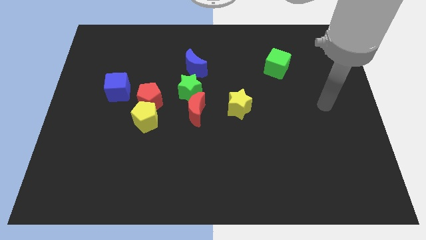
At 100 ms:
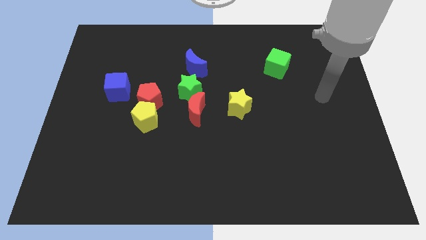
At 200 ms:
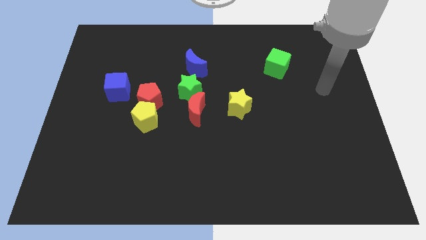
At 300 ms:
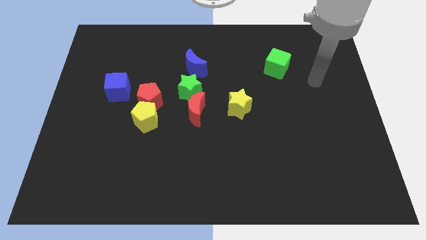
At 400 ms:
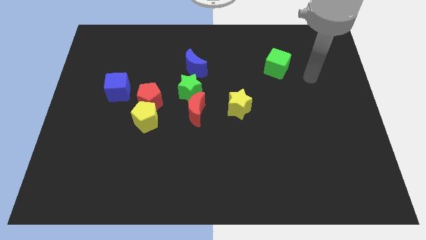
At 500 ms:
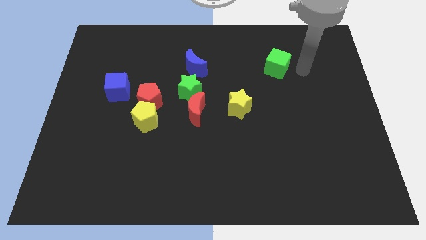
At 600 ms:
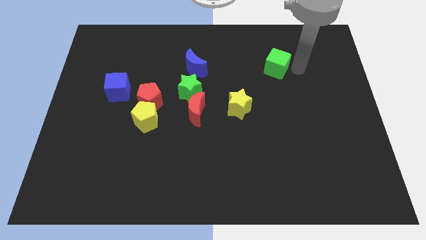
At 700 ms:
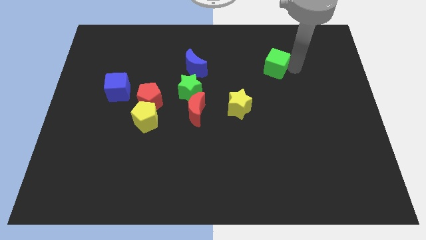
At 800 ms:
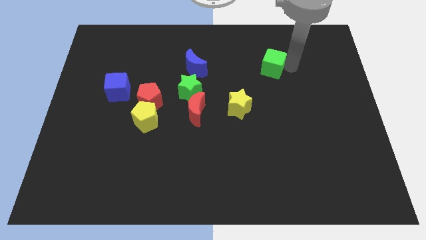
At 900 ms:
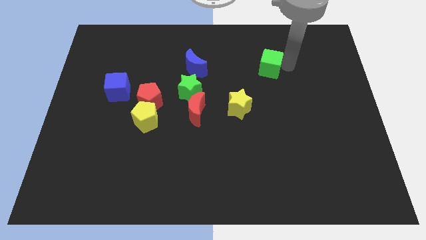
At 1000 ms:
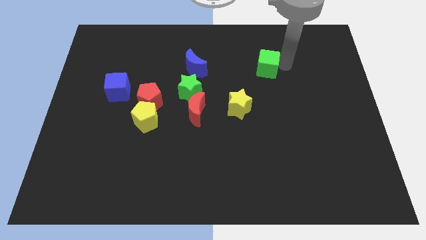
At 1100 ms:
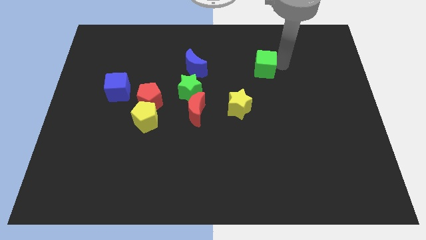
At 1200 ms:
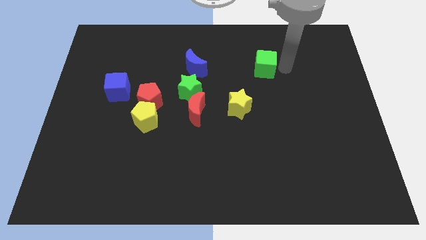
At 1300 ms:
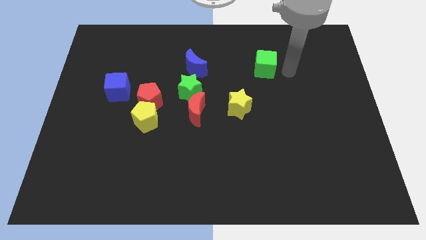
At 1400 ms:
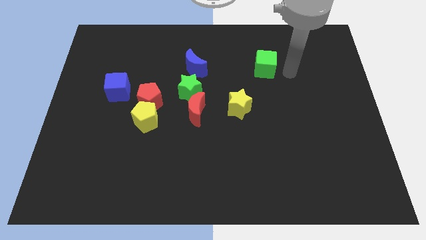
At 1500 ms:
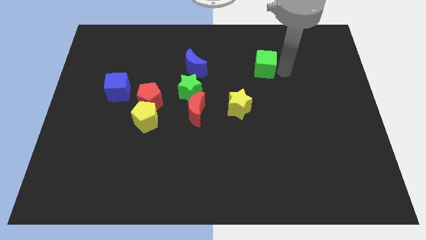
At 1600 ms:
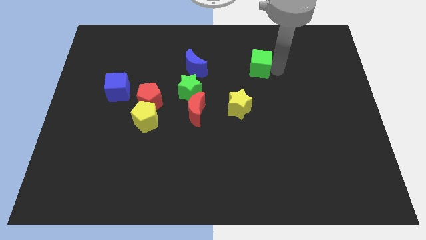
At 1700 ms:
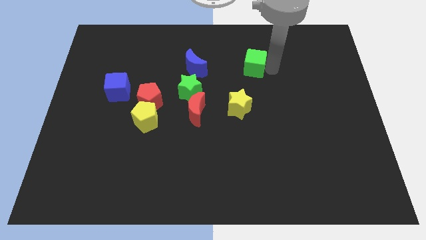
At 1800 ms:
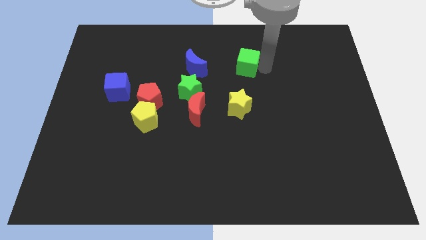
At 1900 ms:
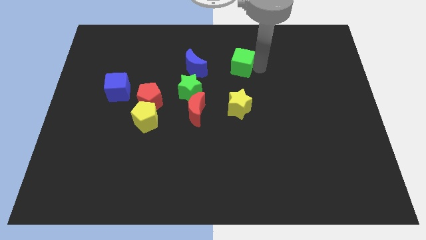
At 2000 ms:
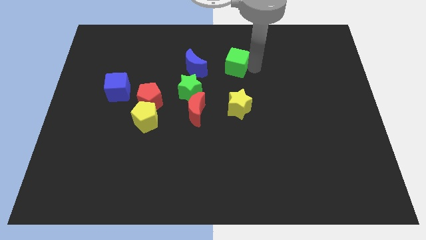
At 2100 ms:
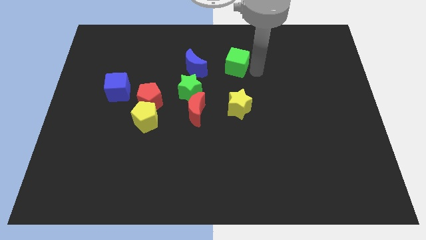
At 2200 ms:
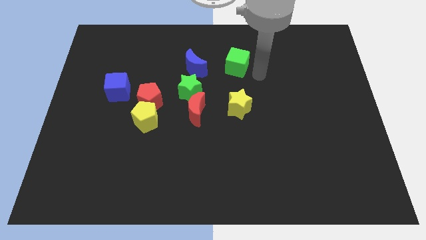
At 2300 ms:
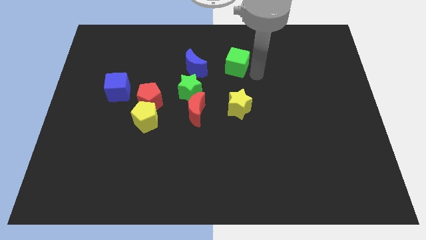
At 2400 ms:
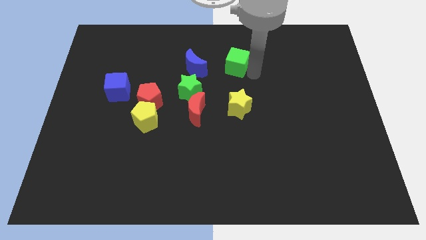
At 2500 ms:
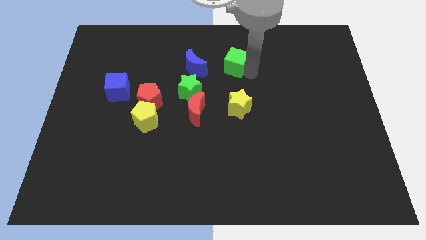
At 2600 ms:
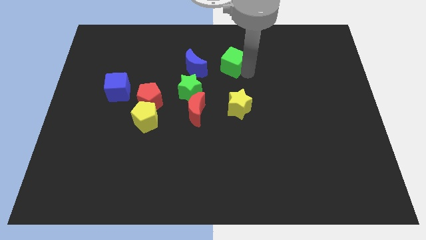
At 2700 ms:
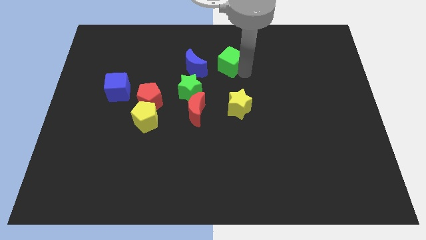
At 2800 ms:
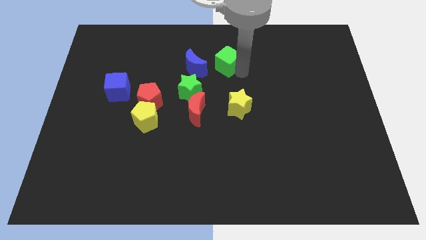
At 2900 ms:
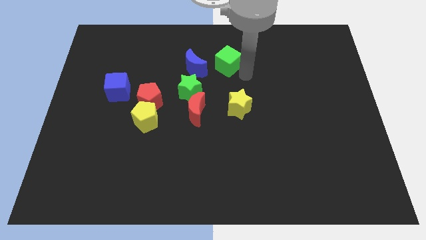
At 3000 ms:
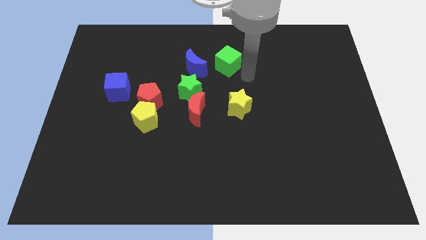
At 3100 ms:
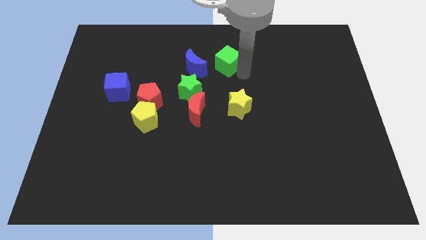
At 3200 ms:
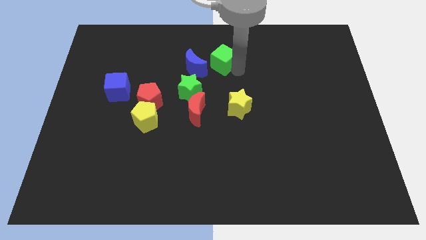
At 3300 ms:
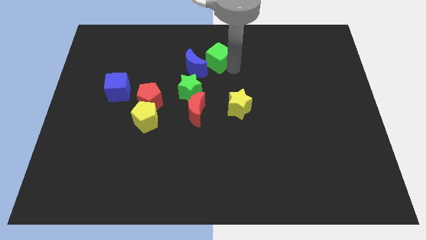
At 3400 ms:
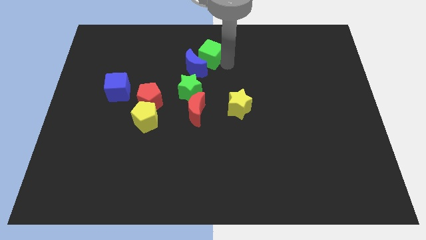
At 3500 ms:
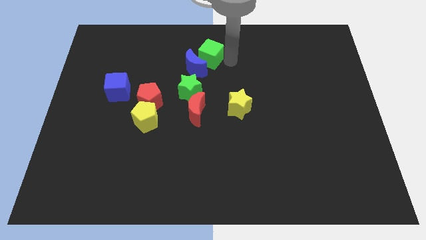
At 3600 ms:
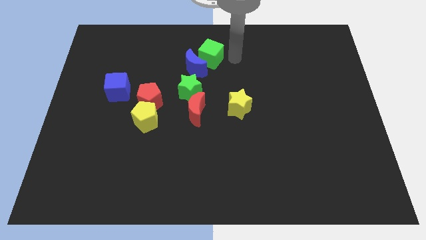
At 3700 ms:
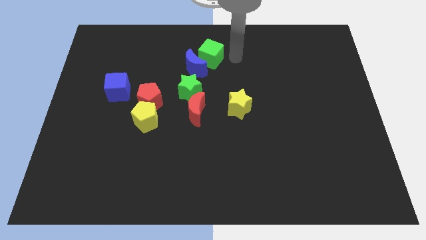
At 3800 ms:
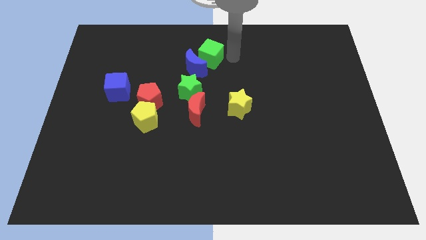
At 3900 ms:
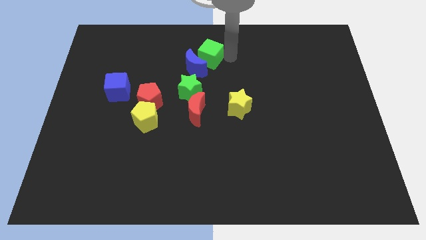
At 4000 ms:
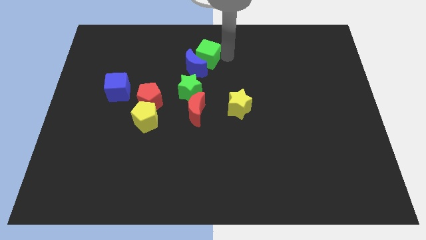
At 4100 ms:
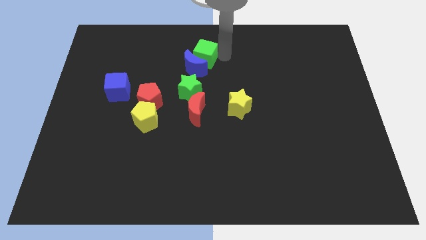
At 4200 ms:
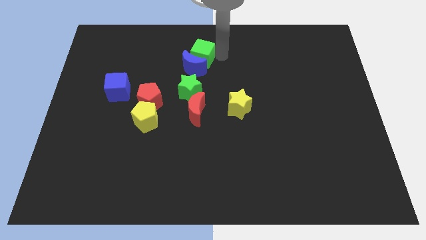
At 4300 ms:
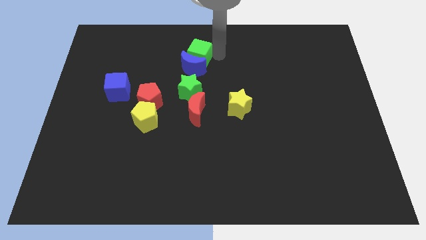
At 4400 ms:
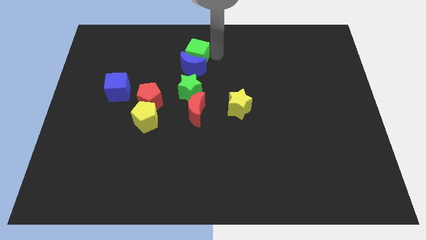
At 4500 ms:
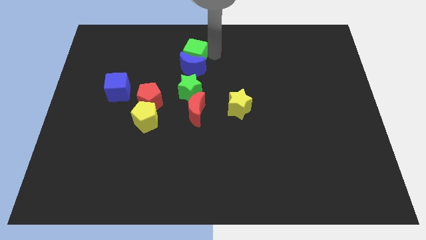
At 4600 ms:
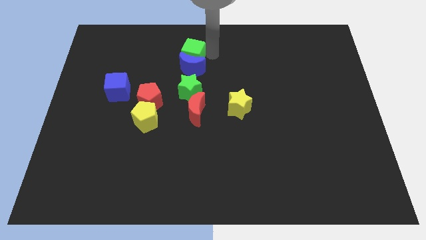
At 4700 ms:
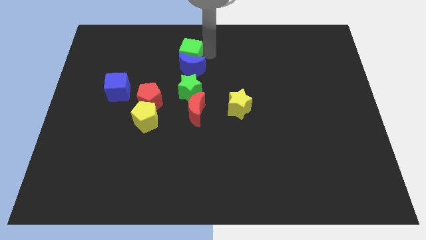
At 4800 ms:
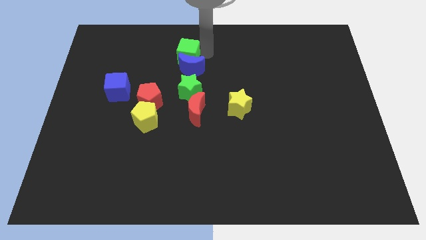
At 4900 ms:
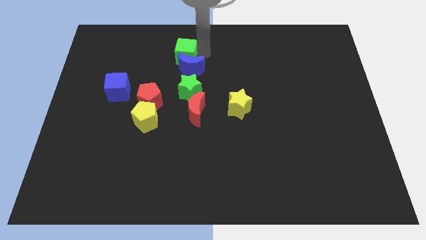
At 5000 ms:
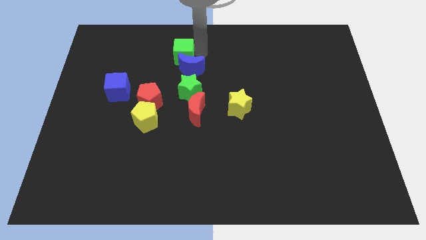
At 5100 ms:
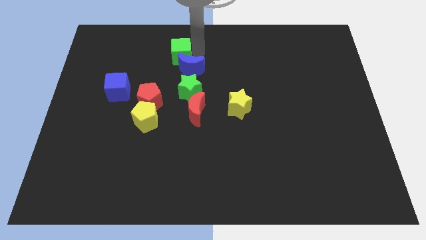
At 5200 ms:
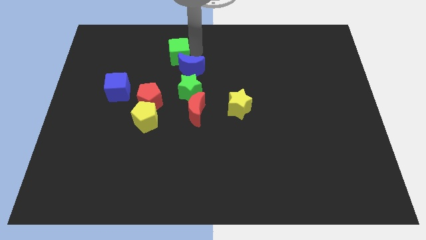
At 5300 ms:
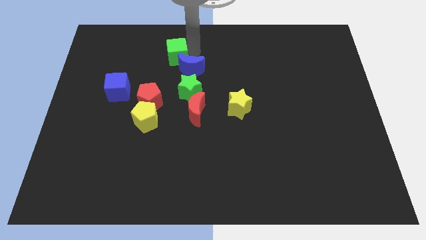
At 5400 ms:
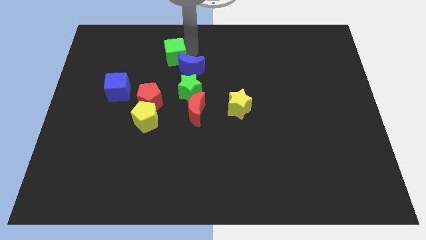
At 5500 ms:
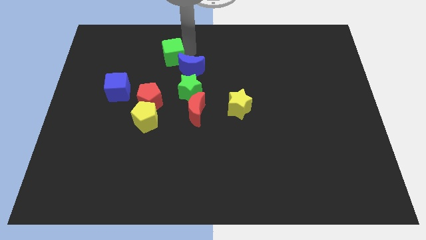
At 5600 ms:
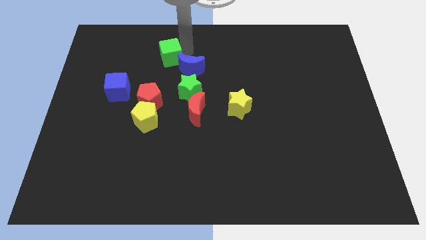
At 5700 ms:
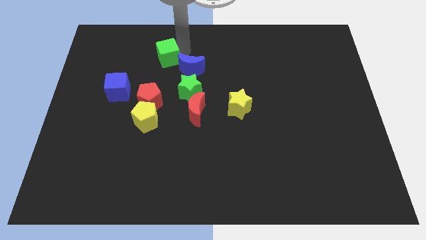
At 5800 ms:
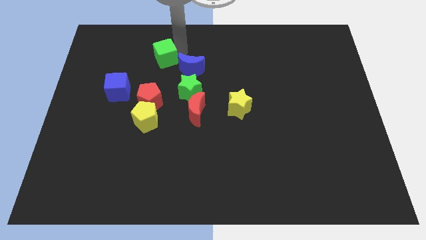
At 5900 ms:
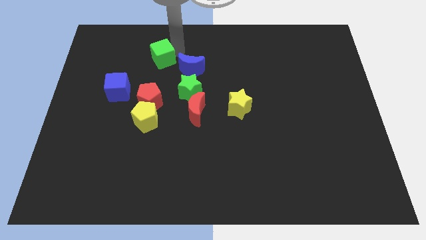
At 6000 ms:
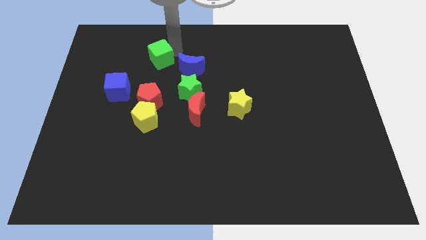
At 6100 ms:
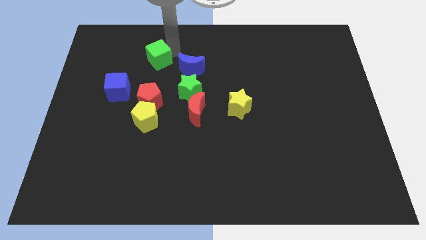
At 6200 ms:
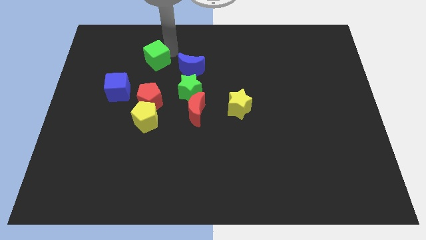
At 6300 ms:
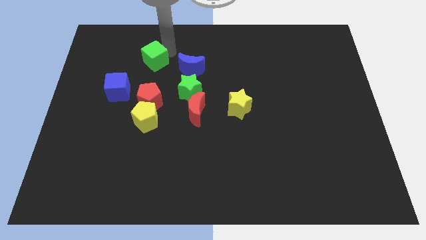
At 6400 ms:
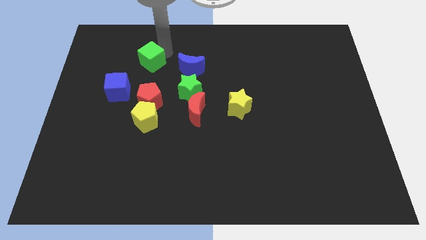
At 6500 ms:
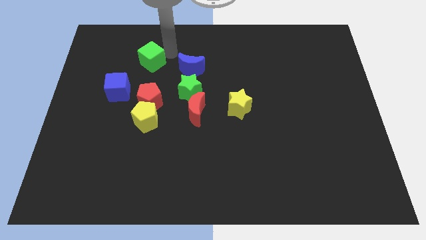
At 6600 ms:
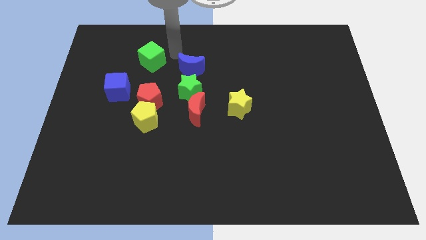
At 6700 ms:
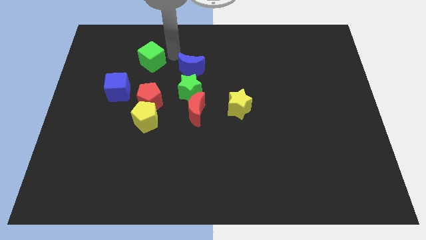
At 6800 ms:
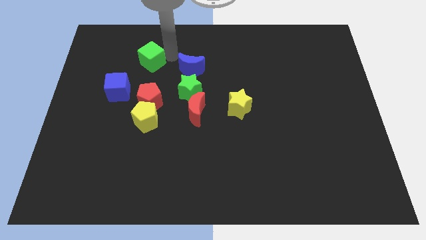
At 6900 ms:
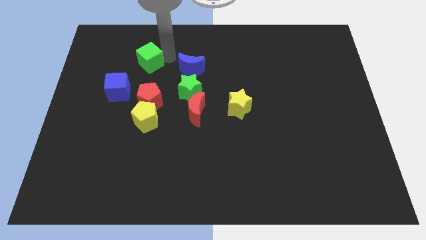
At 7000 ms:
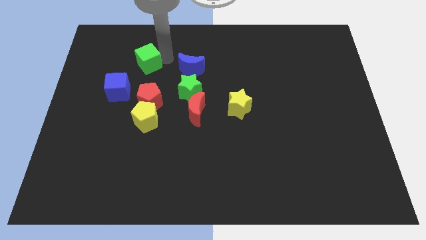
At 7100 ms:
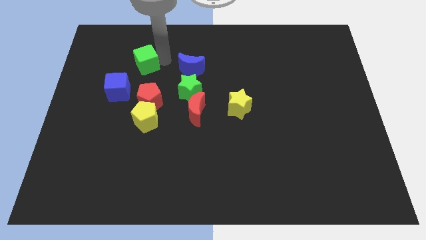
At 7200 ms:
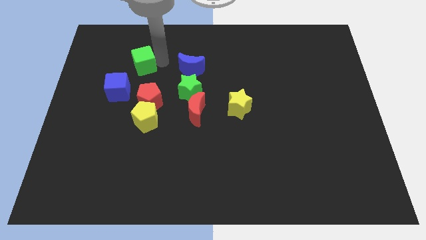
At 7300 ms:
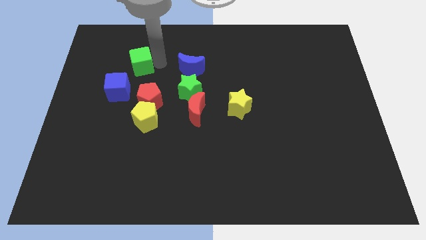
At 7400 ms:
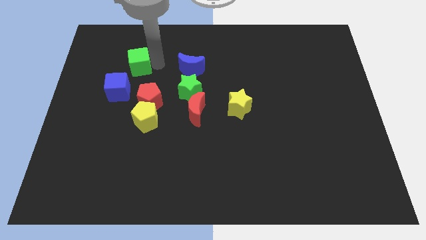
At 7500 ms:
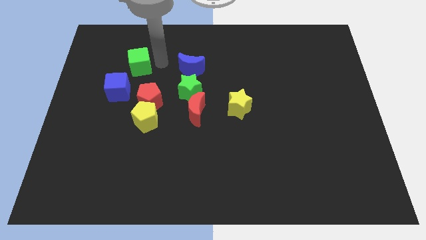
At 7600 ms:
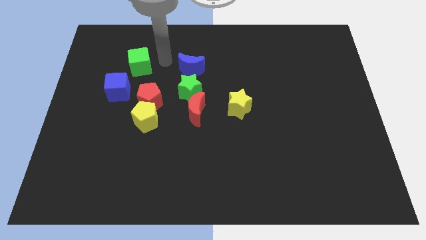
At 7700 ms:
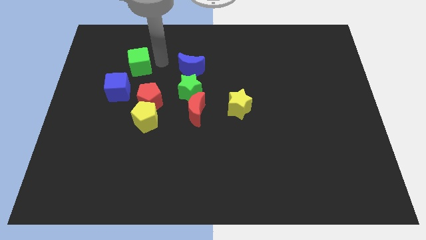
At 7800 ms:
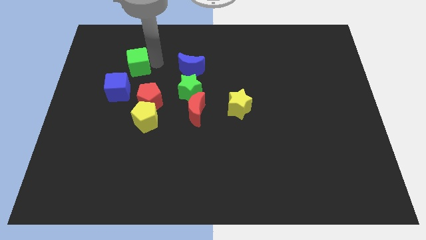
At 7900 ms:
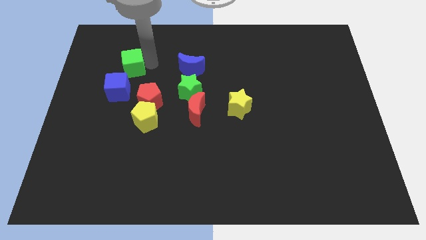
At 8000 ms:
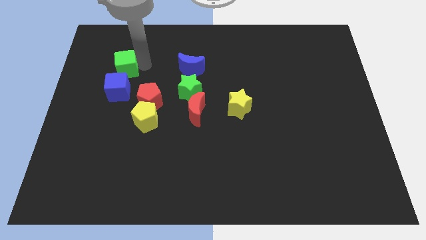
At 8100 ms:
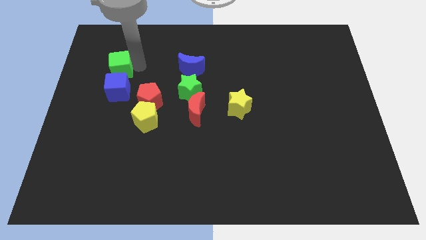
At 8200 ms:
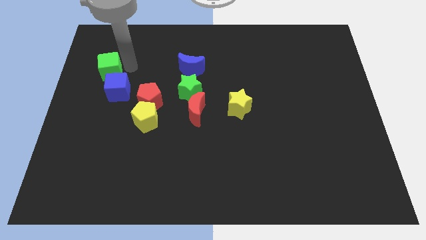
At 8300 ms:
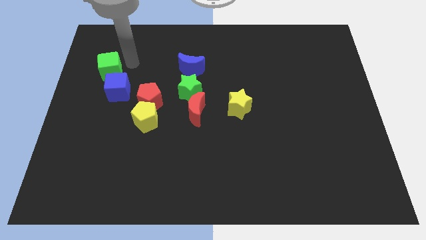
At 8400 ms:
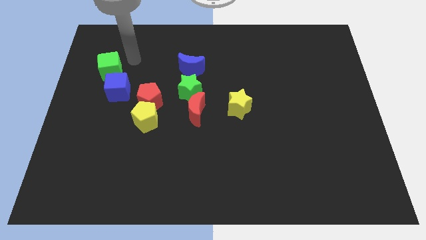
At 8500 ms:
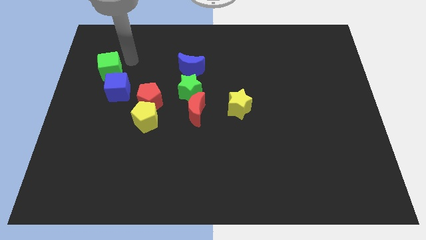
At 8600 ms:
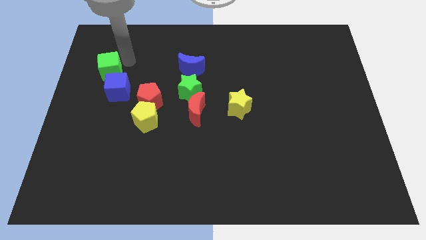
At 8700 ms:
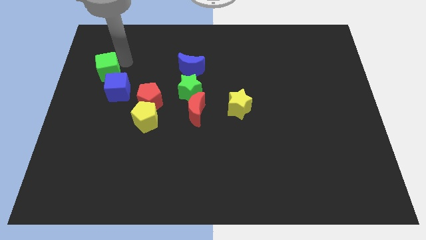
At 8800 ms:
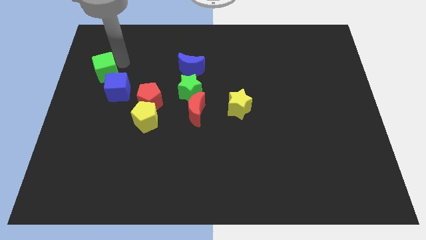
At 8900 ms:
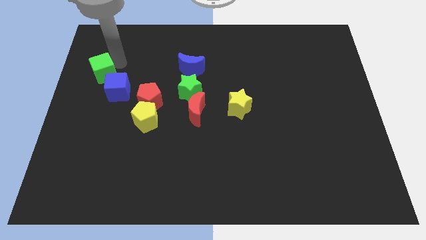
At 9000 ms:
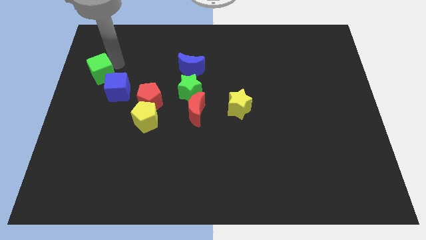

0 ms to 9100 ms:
put the green cube to the left side
